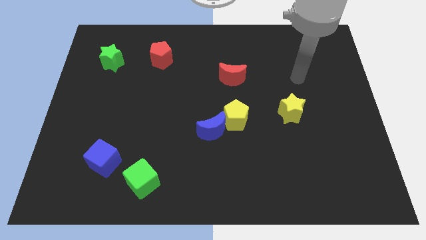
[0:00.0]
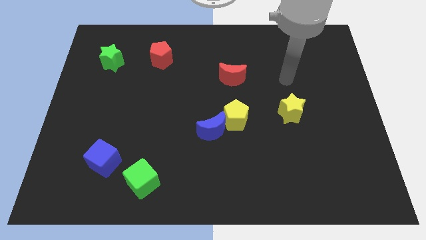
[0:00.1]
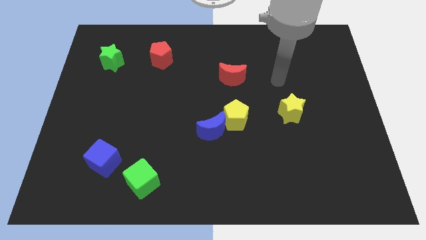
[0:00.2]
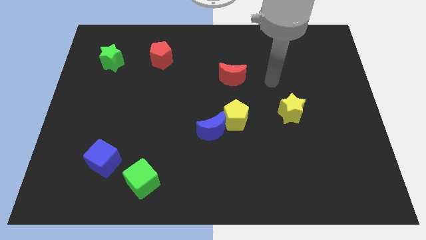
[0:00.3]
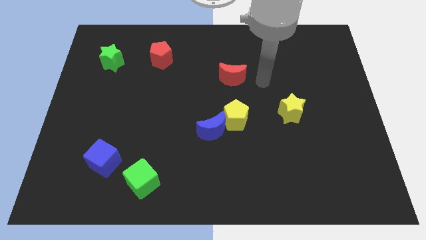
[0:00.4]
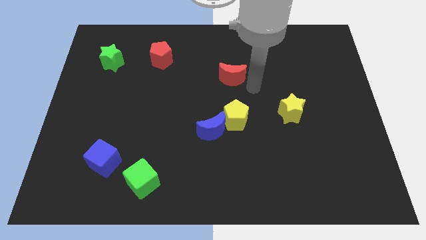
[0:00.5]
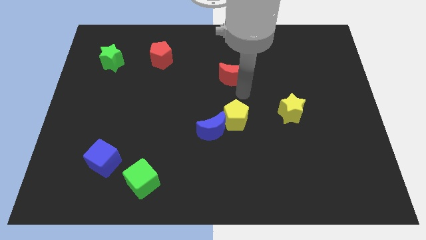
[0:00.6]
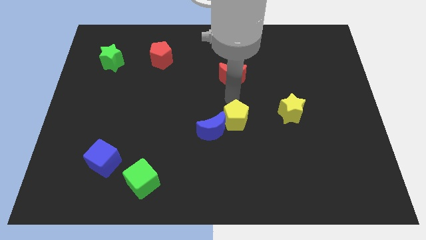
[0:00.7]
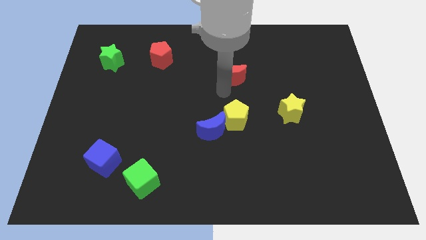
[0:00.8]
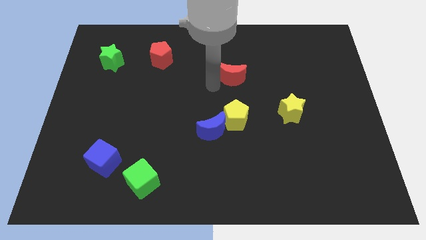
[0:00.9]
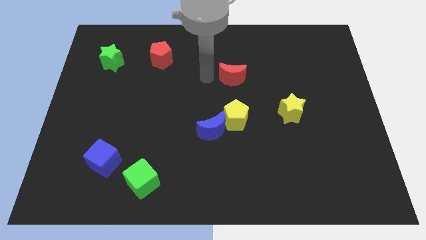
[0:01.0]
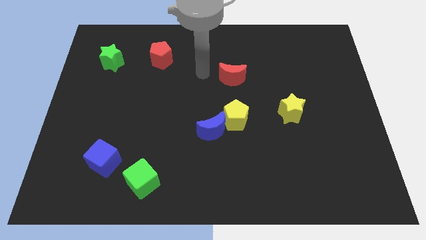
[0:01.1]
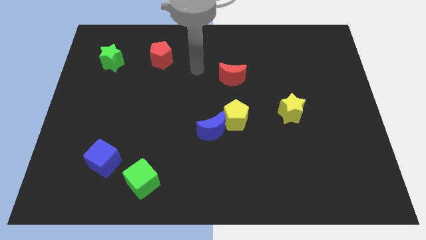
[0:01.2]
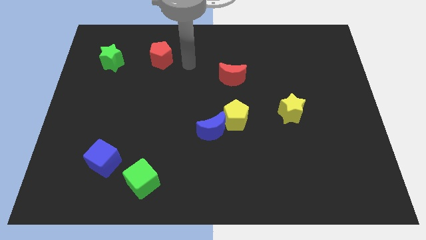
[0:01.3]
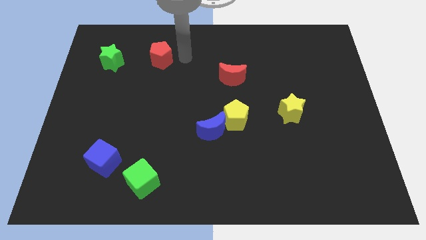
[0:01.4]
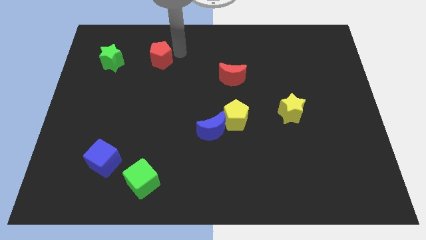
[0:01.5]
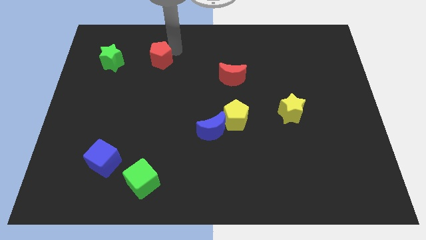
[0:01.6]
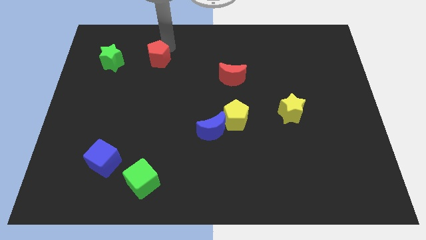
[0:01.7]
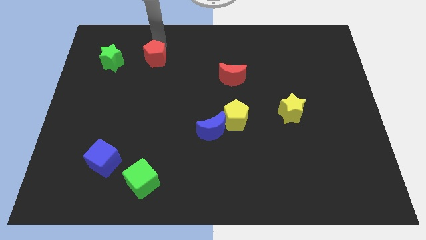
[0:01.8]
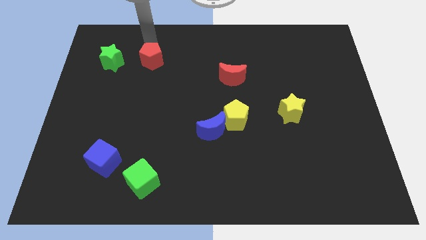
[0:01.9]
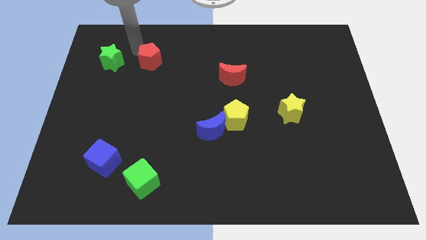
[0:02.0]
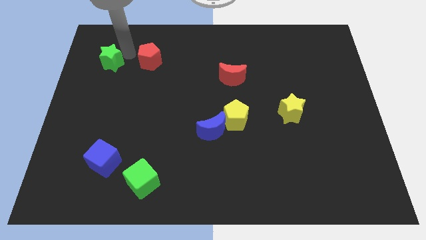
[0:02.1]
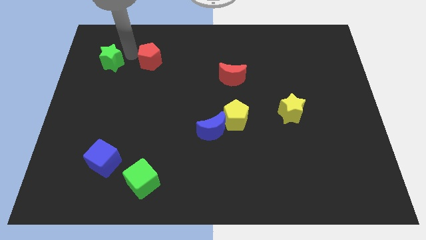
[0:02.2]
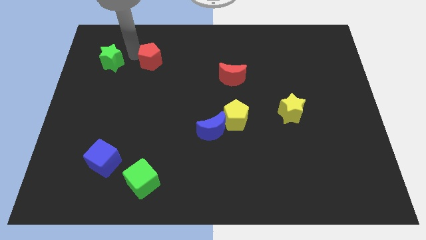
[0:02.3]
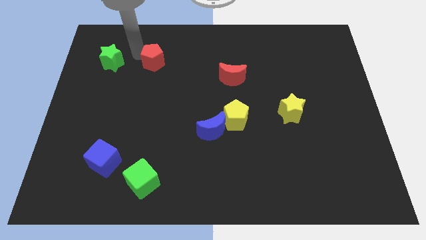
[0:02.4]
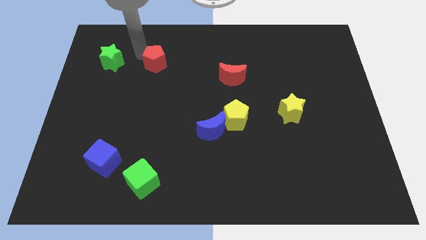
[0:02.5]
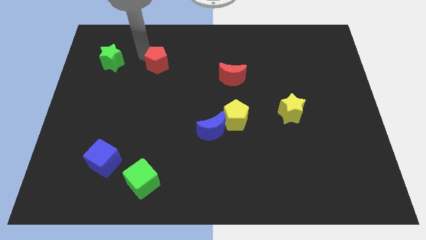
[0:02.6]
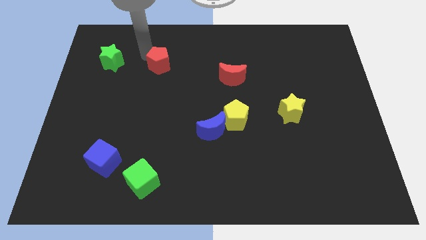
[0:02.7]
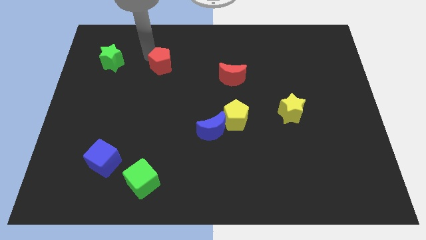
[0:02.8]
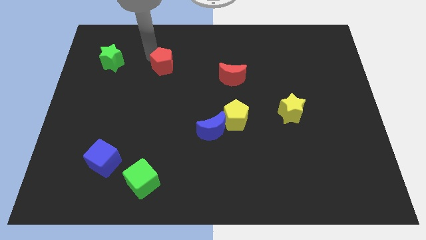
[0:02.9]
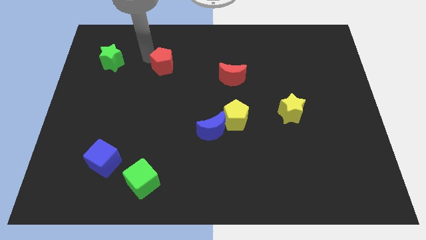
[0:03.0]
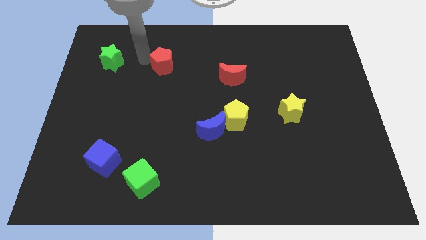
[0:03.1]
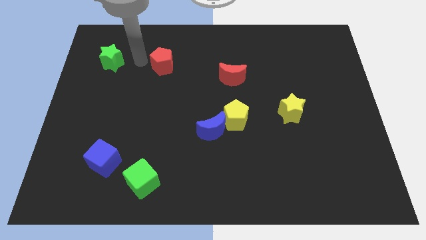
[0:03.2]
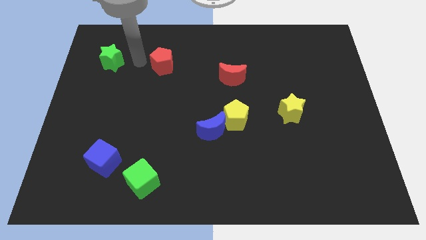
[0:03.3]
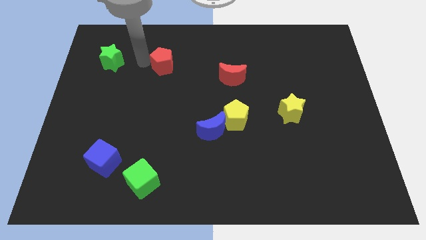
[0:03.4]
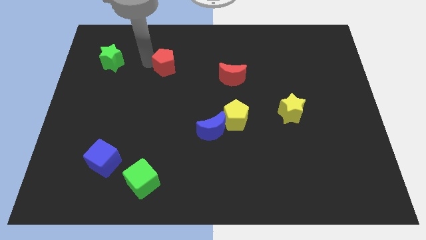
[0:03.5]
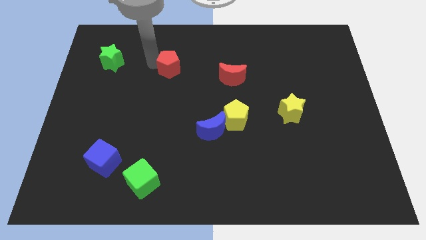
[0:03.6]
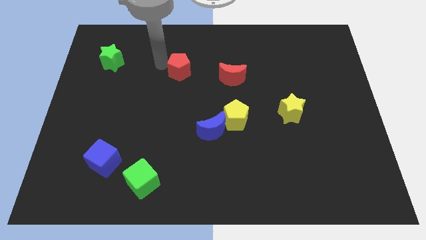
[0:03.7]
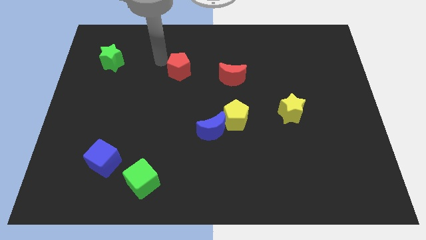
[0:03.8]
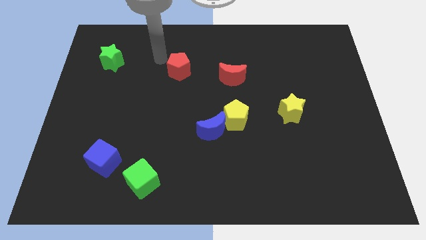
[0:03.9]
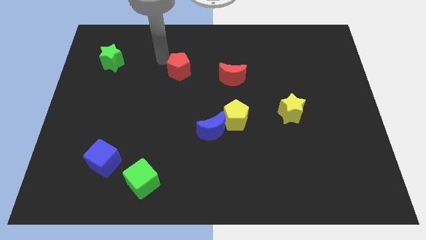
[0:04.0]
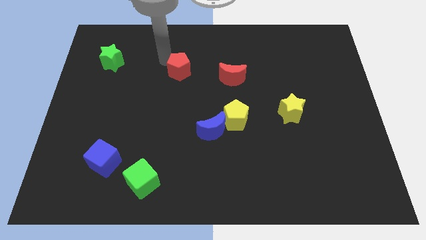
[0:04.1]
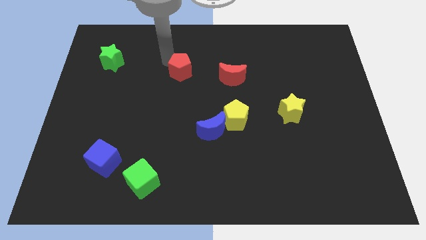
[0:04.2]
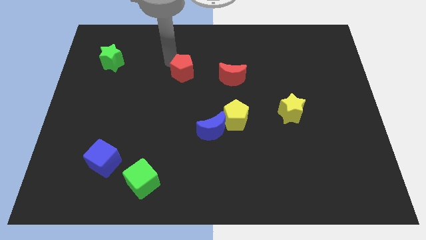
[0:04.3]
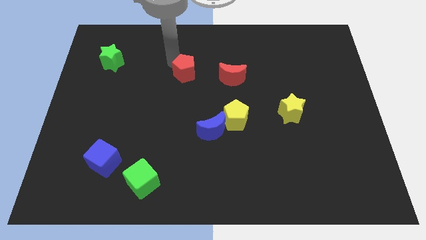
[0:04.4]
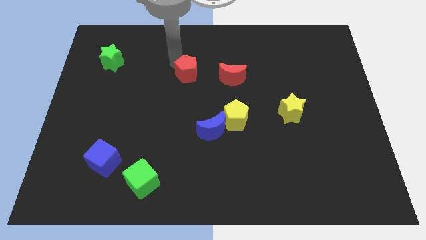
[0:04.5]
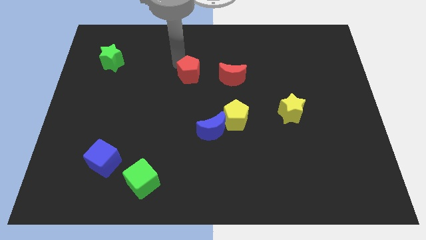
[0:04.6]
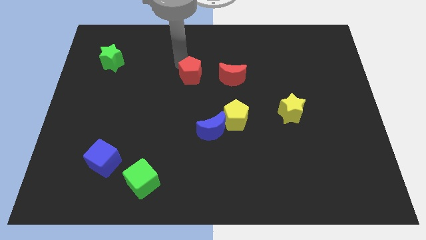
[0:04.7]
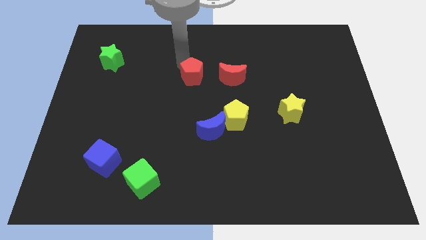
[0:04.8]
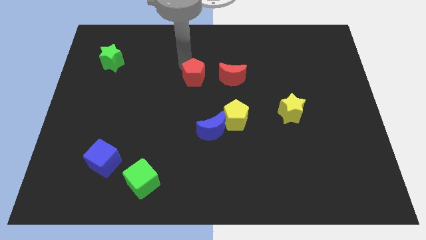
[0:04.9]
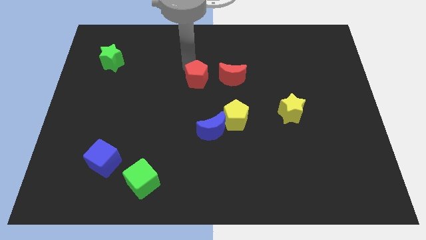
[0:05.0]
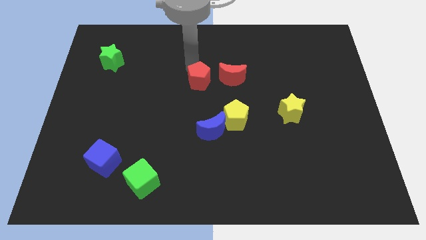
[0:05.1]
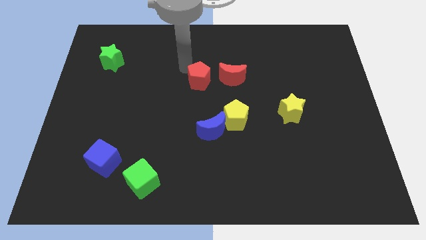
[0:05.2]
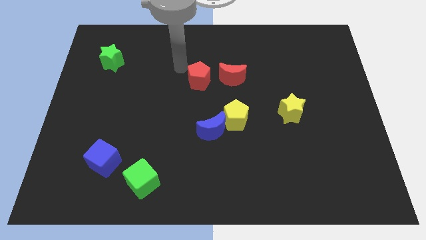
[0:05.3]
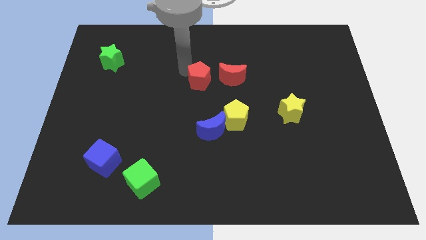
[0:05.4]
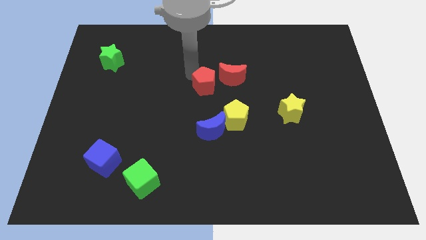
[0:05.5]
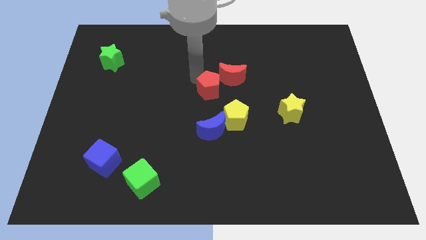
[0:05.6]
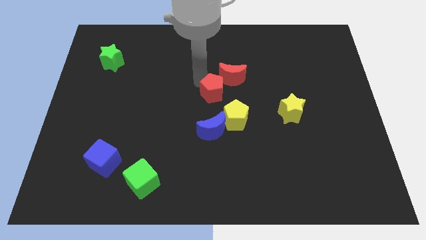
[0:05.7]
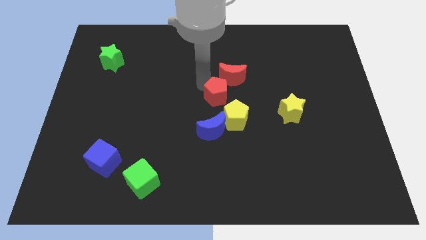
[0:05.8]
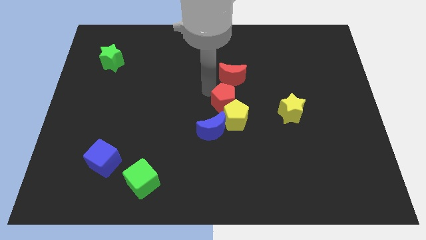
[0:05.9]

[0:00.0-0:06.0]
move the red pentagon down and to the right

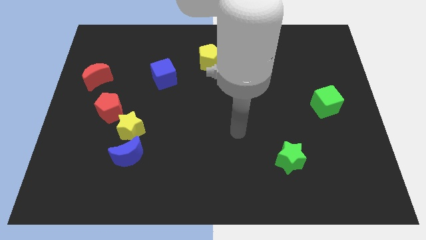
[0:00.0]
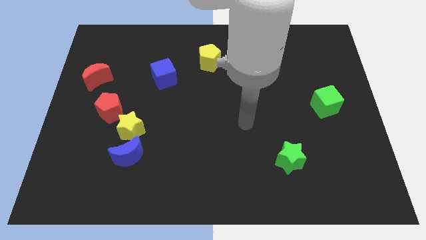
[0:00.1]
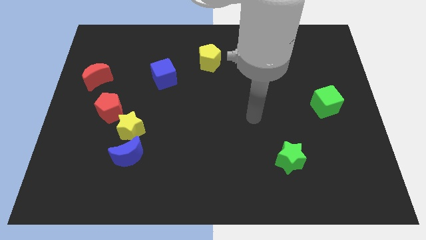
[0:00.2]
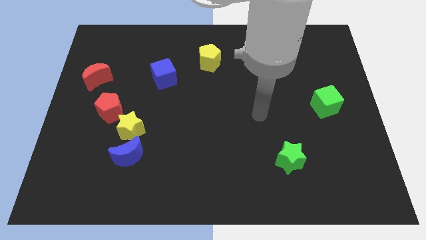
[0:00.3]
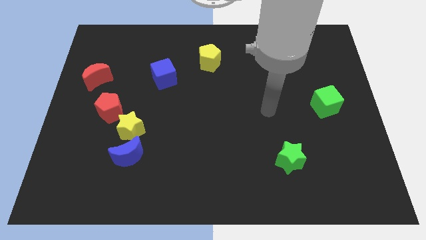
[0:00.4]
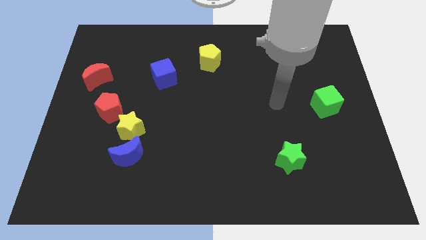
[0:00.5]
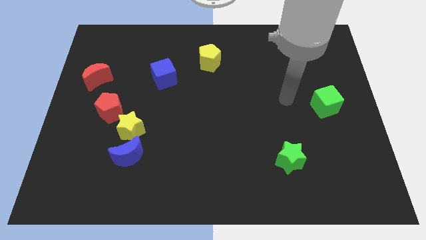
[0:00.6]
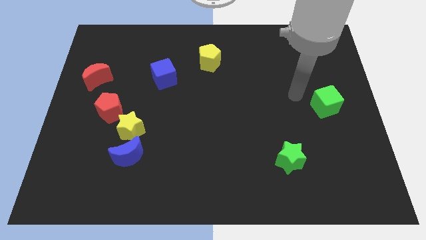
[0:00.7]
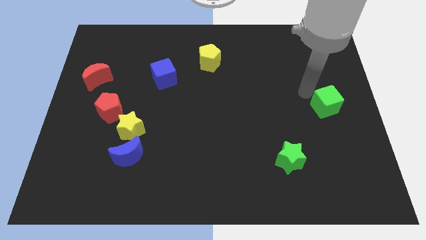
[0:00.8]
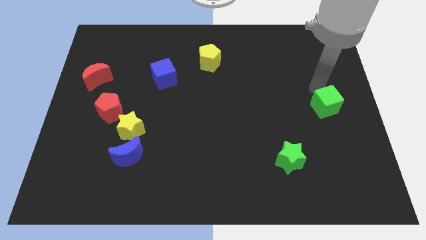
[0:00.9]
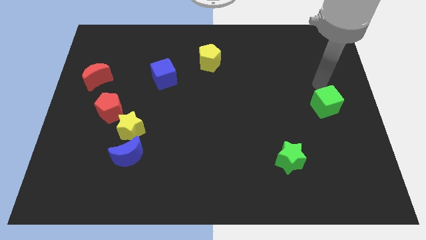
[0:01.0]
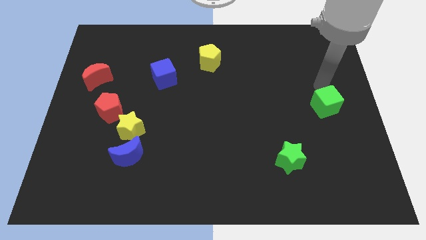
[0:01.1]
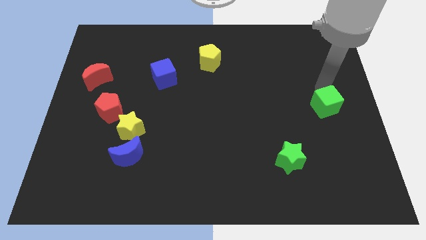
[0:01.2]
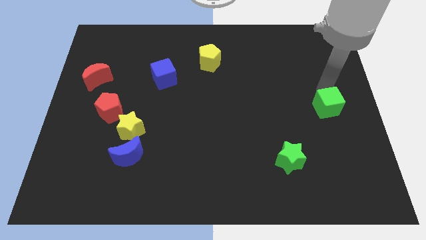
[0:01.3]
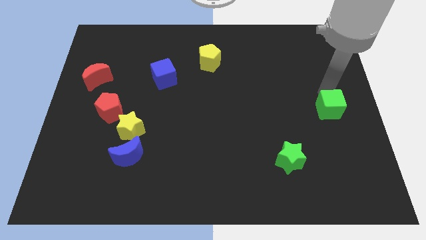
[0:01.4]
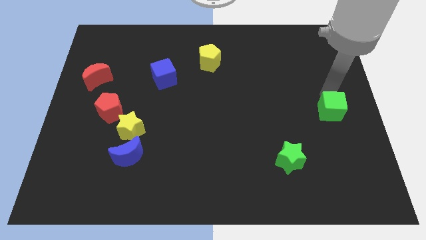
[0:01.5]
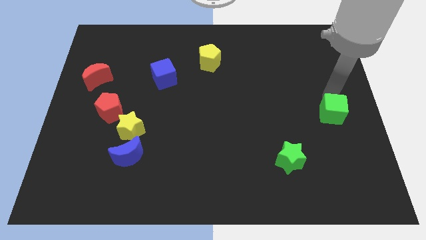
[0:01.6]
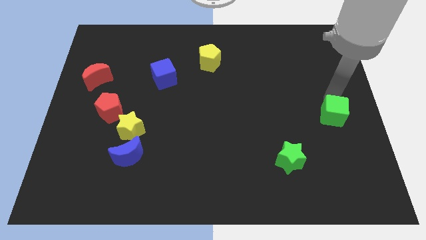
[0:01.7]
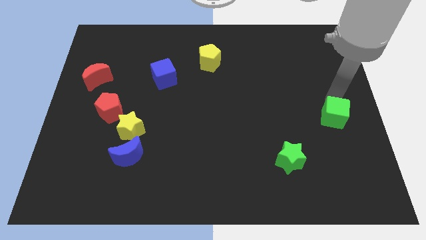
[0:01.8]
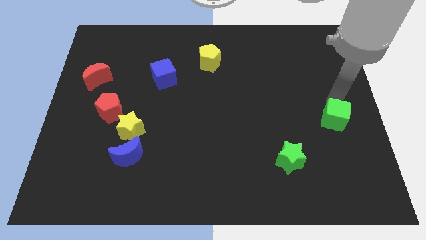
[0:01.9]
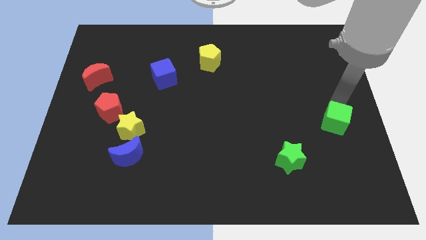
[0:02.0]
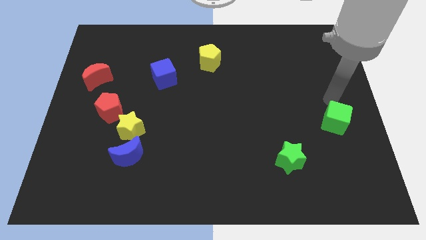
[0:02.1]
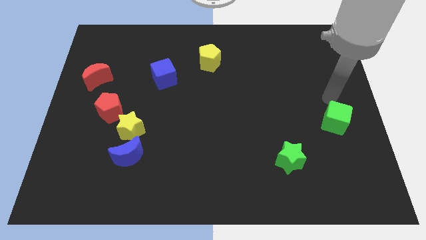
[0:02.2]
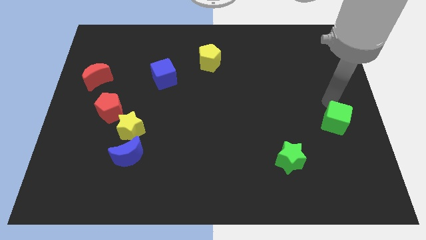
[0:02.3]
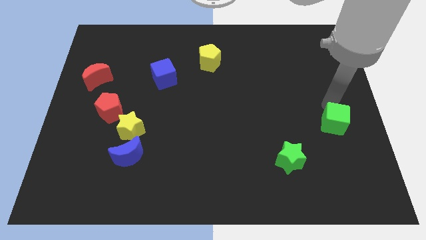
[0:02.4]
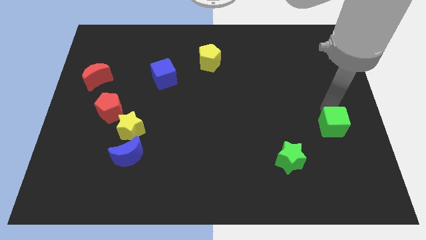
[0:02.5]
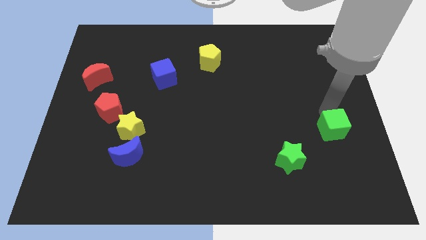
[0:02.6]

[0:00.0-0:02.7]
slide the green cube slightly down
